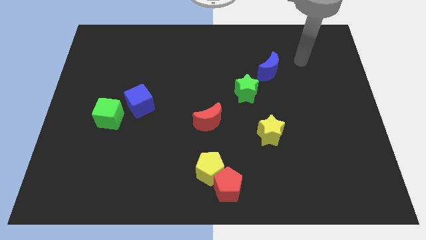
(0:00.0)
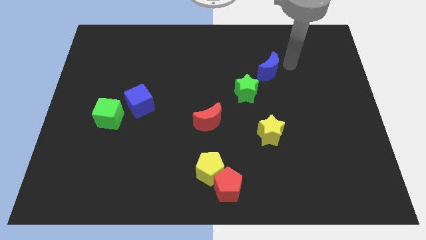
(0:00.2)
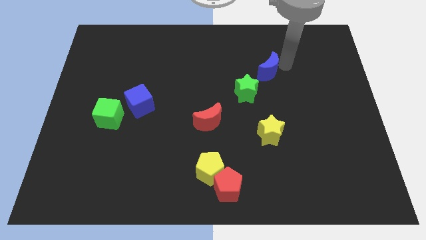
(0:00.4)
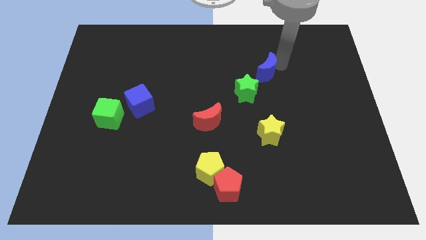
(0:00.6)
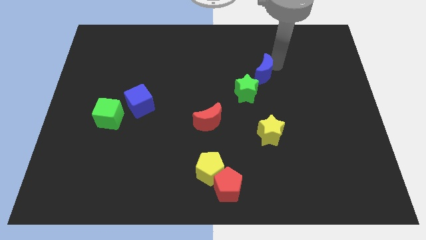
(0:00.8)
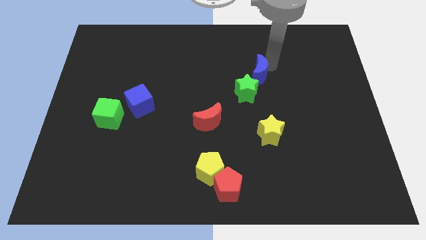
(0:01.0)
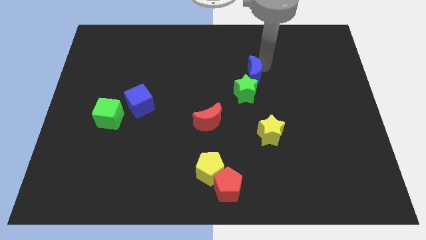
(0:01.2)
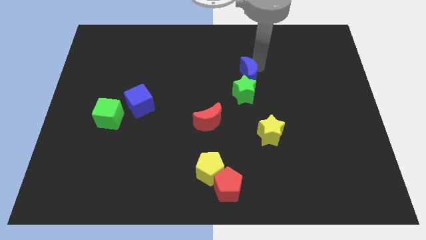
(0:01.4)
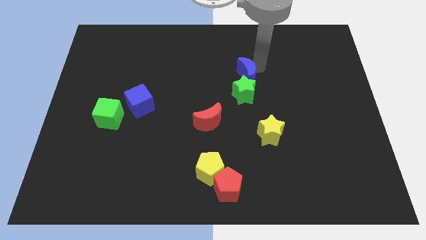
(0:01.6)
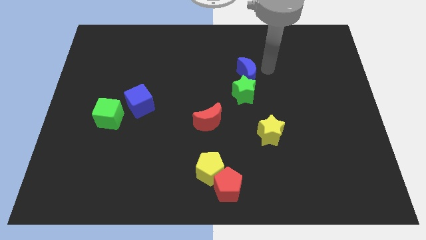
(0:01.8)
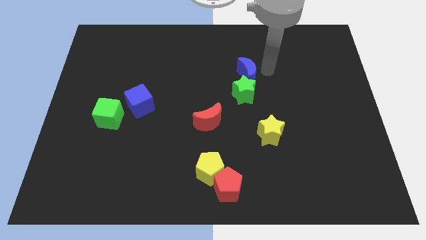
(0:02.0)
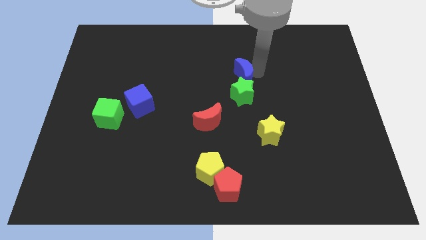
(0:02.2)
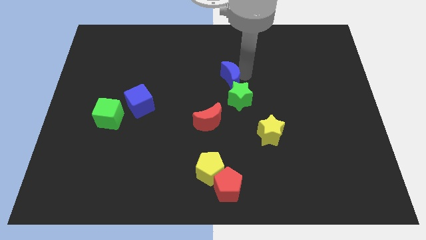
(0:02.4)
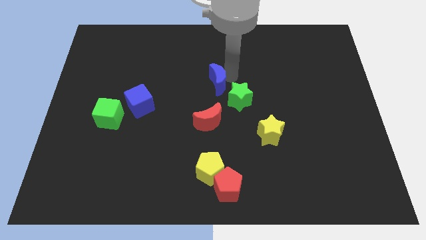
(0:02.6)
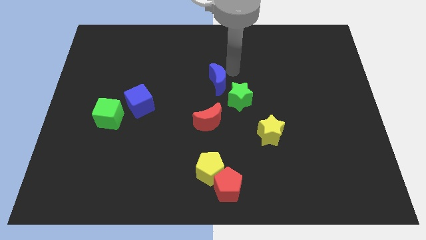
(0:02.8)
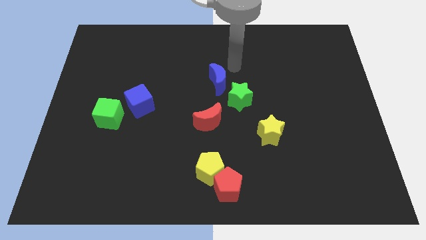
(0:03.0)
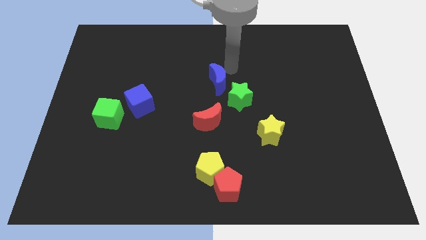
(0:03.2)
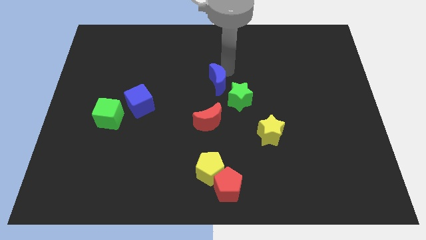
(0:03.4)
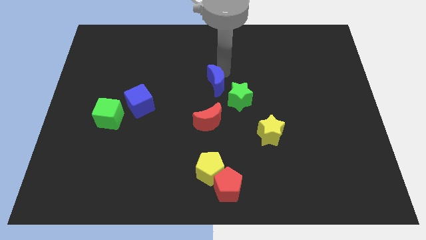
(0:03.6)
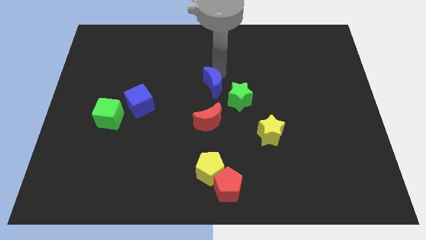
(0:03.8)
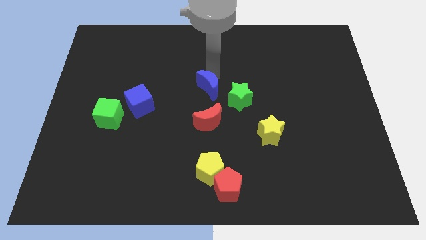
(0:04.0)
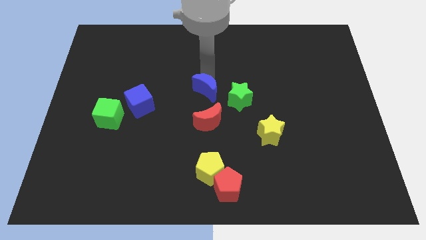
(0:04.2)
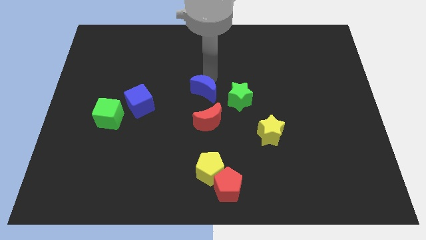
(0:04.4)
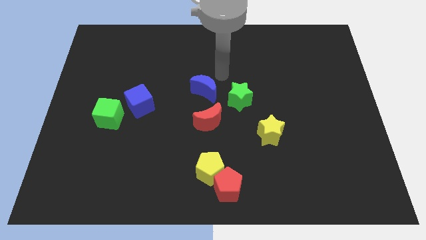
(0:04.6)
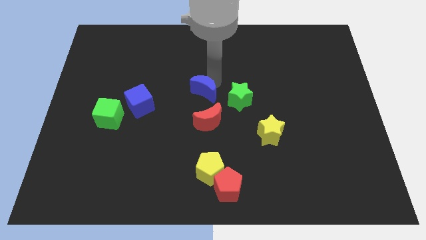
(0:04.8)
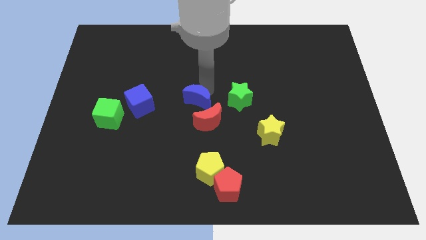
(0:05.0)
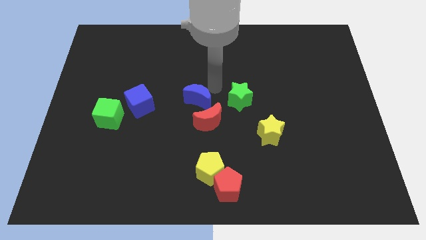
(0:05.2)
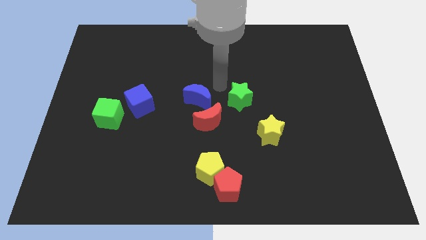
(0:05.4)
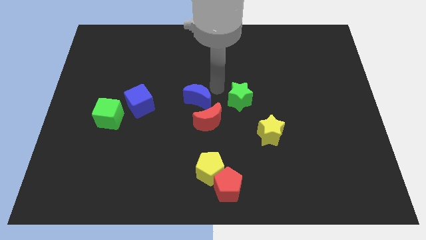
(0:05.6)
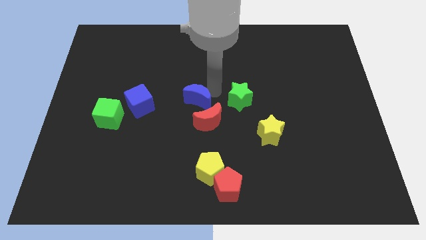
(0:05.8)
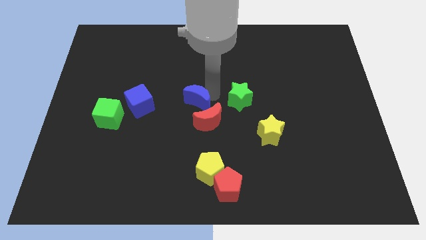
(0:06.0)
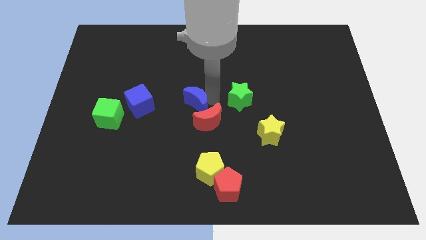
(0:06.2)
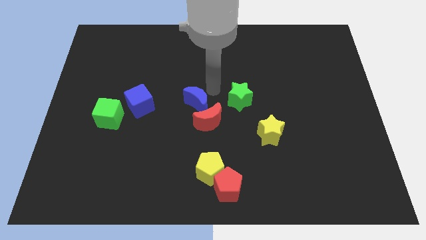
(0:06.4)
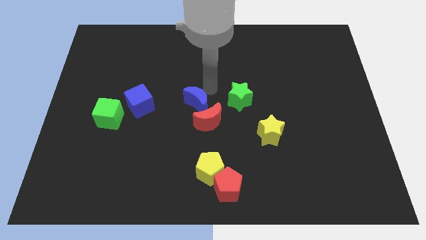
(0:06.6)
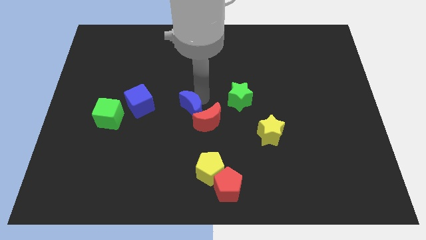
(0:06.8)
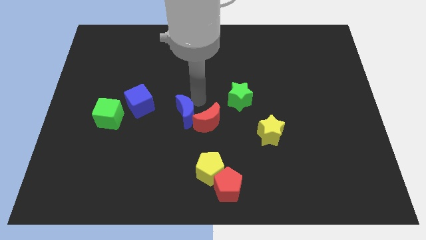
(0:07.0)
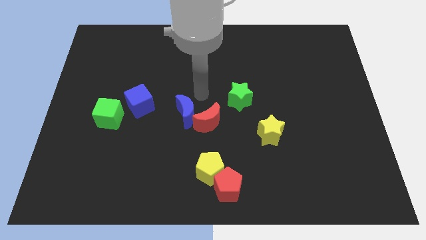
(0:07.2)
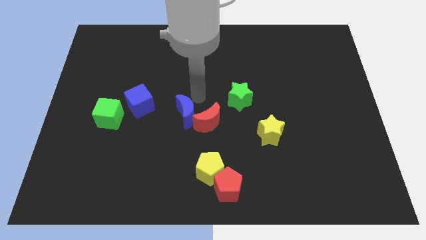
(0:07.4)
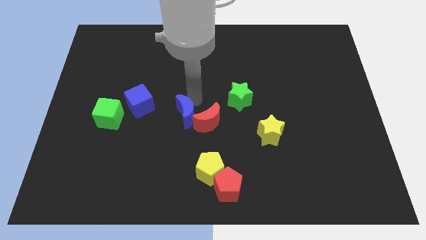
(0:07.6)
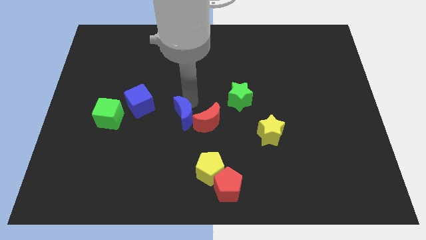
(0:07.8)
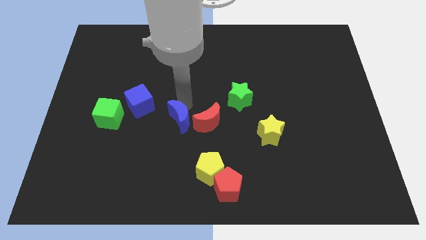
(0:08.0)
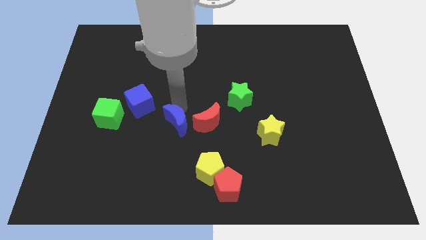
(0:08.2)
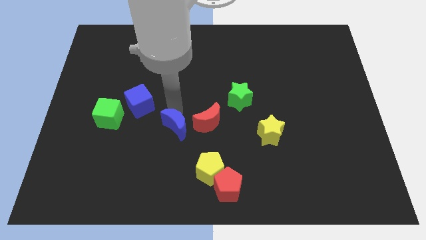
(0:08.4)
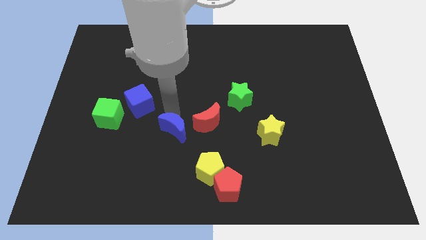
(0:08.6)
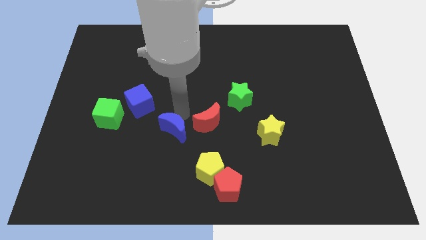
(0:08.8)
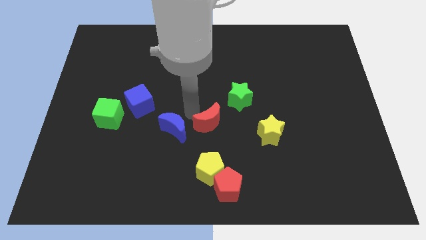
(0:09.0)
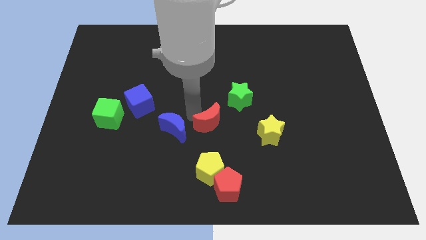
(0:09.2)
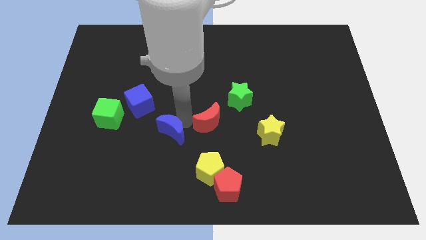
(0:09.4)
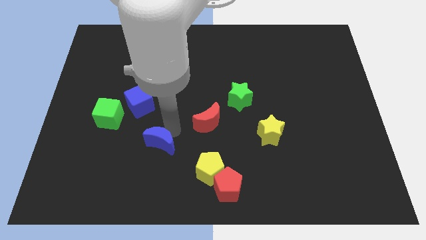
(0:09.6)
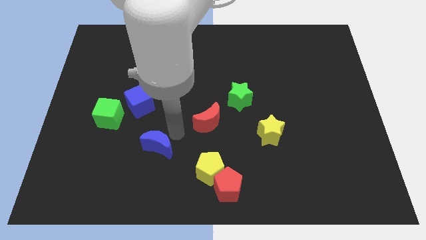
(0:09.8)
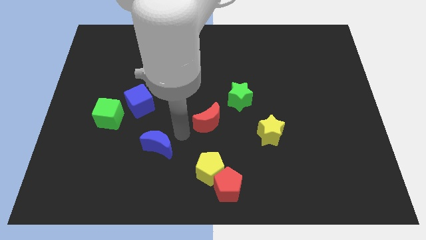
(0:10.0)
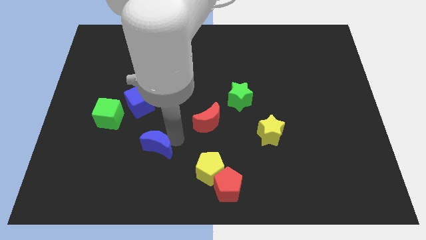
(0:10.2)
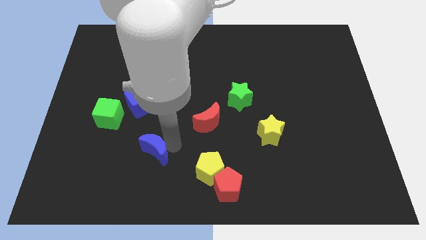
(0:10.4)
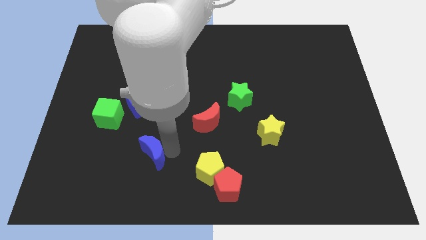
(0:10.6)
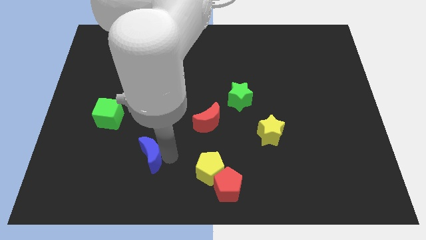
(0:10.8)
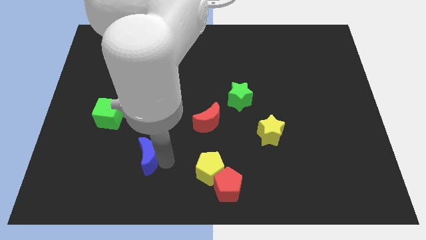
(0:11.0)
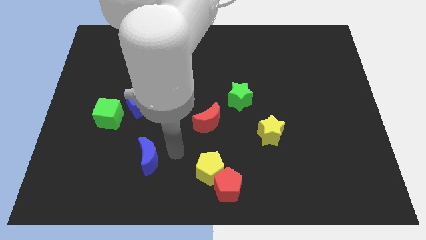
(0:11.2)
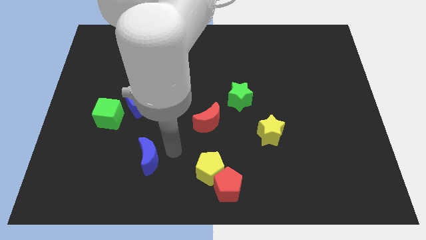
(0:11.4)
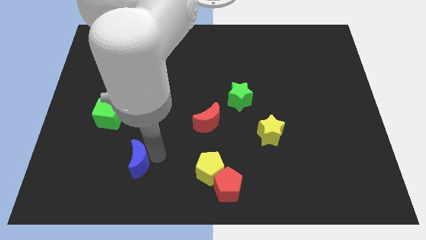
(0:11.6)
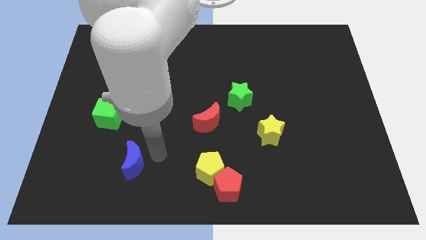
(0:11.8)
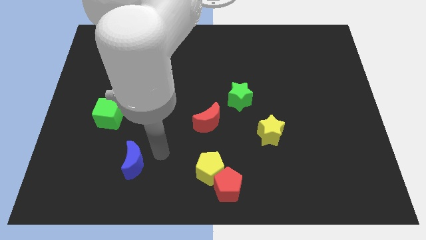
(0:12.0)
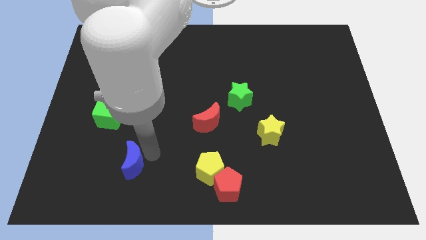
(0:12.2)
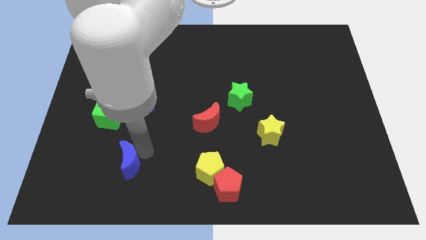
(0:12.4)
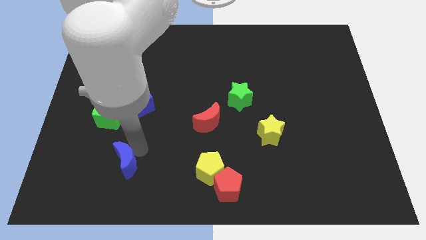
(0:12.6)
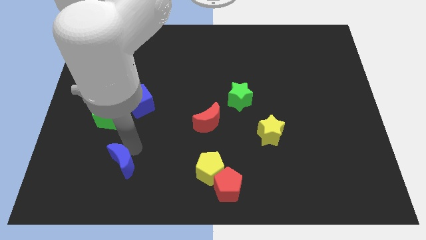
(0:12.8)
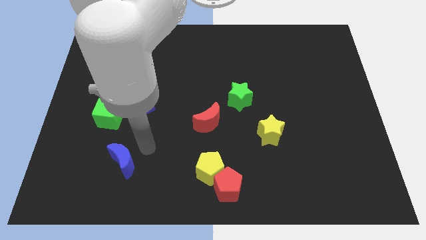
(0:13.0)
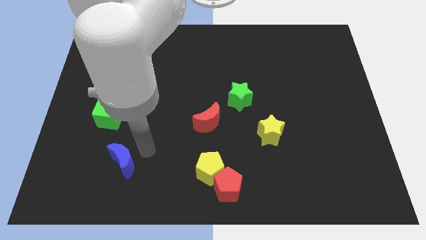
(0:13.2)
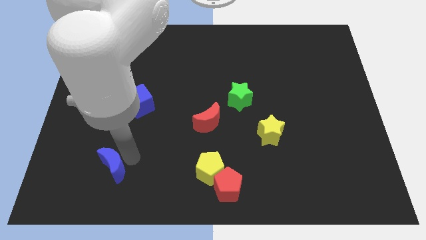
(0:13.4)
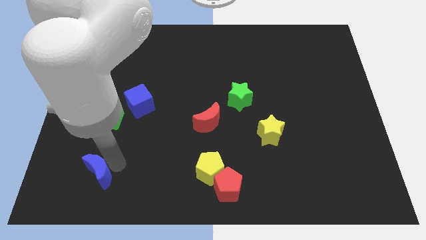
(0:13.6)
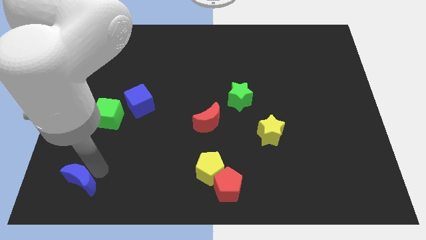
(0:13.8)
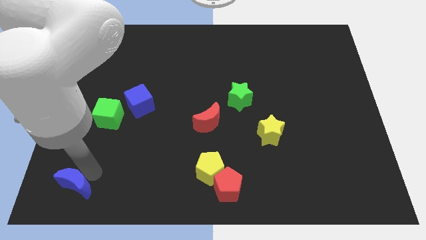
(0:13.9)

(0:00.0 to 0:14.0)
push the blue moon to the bottom left corner
